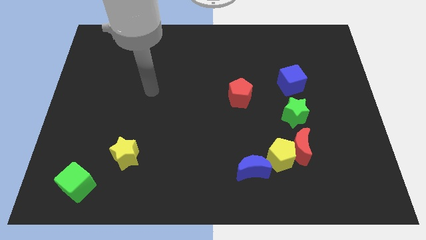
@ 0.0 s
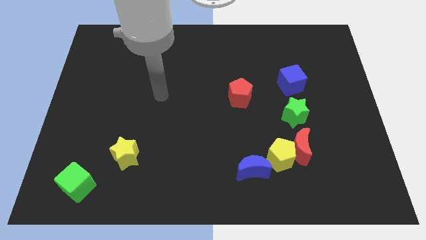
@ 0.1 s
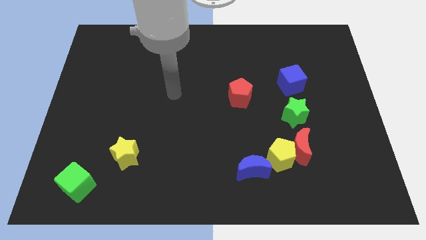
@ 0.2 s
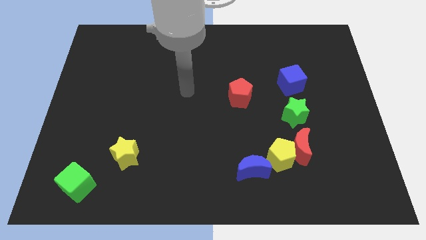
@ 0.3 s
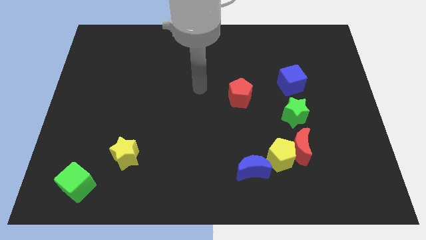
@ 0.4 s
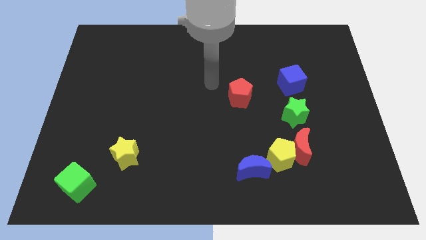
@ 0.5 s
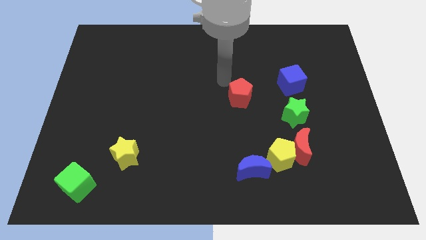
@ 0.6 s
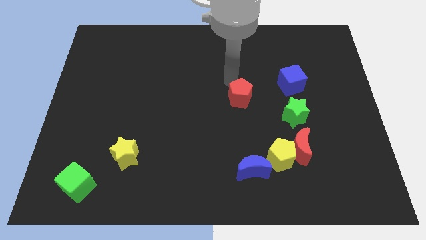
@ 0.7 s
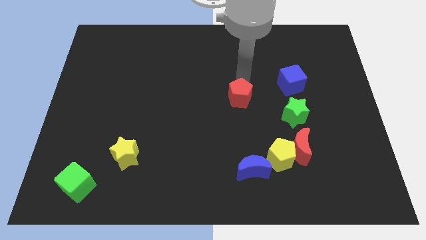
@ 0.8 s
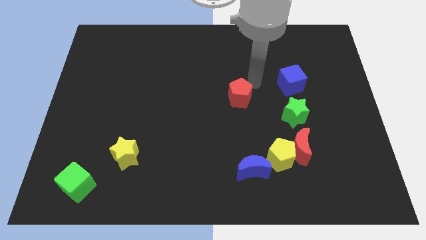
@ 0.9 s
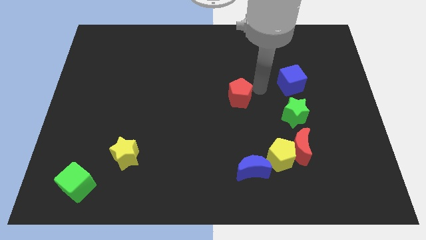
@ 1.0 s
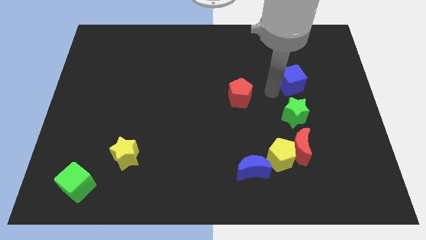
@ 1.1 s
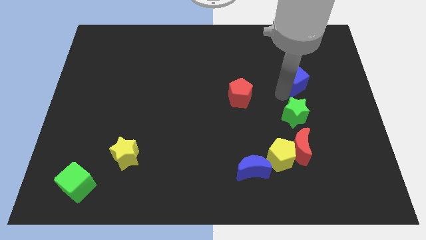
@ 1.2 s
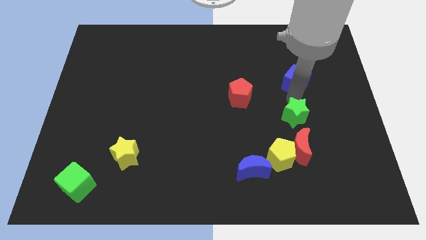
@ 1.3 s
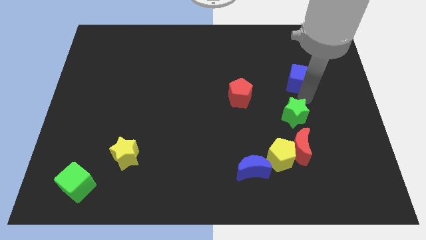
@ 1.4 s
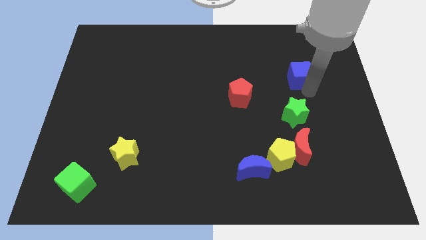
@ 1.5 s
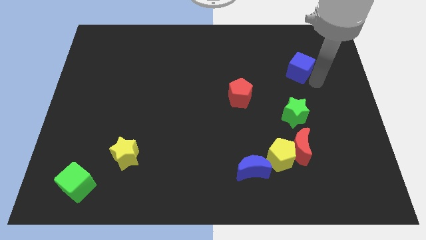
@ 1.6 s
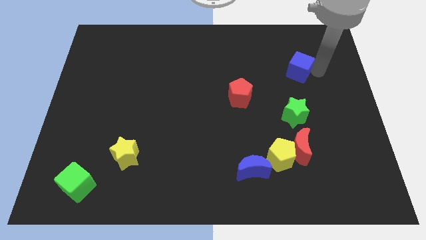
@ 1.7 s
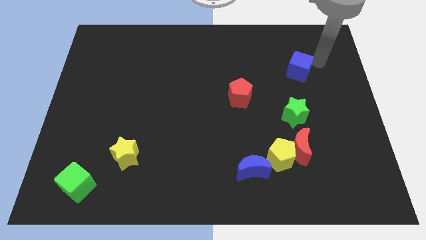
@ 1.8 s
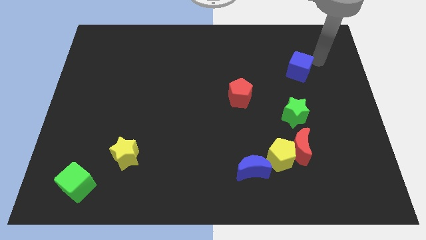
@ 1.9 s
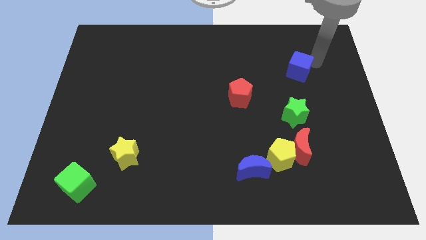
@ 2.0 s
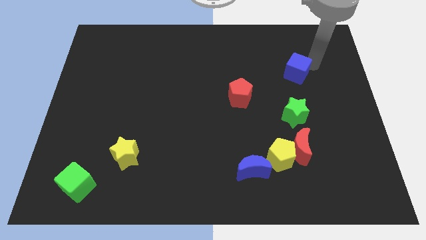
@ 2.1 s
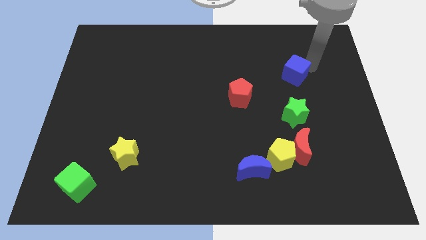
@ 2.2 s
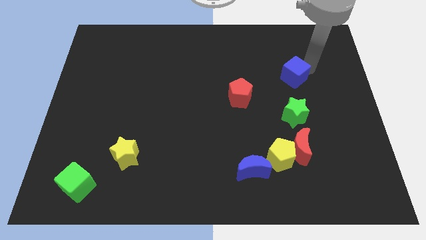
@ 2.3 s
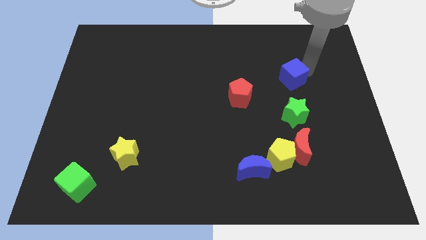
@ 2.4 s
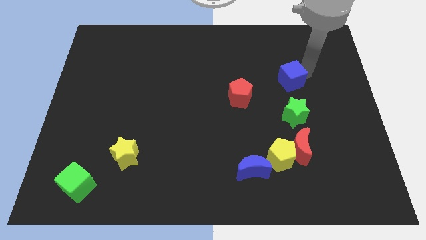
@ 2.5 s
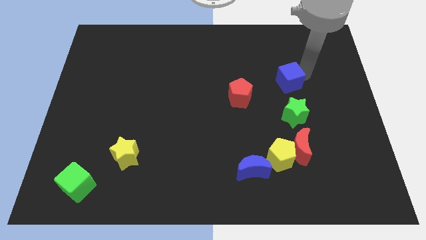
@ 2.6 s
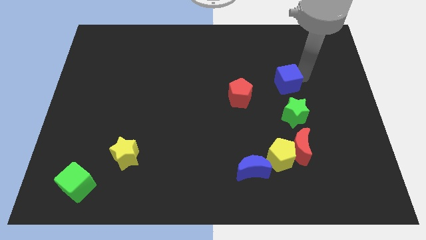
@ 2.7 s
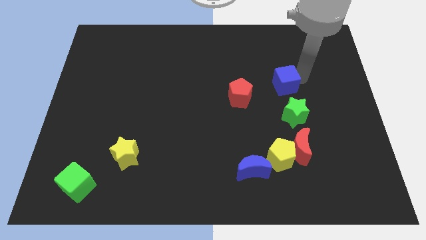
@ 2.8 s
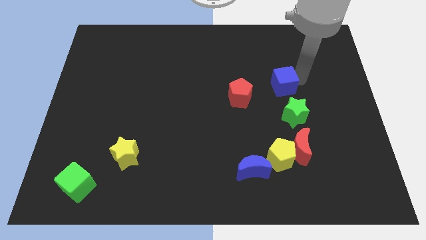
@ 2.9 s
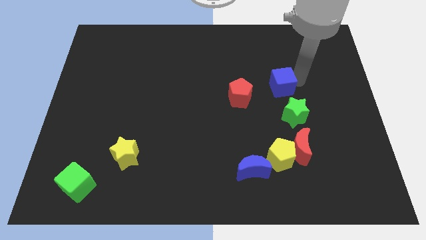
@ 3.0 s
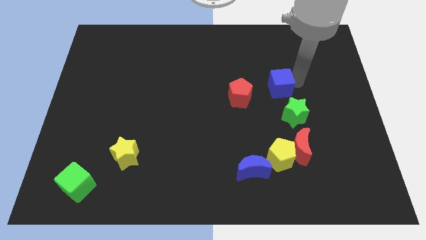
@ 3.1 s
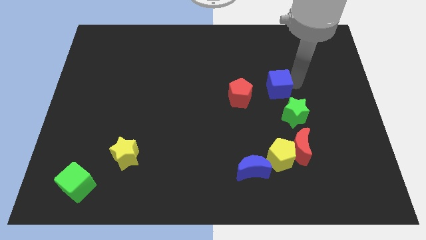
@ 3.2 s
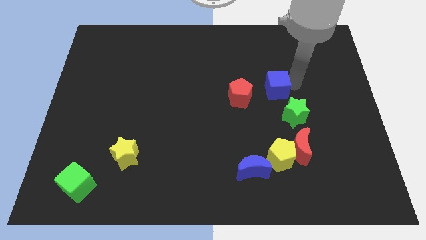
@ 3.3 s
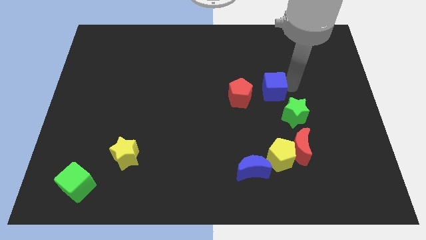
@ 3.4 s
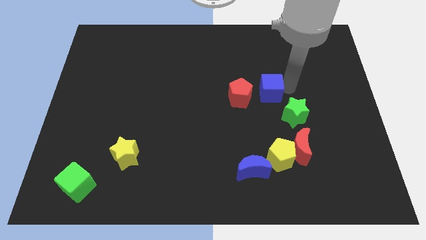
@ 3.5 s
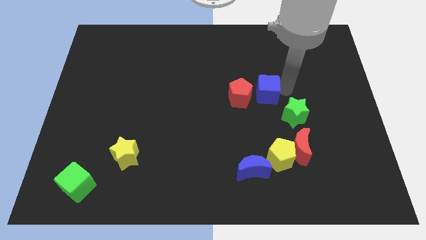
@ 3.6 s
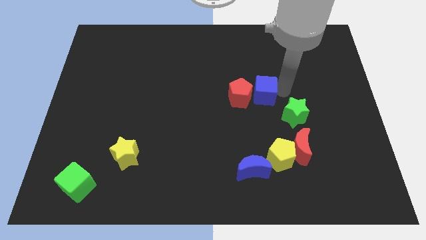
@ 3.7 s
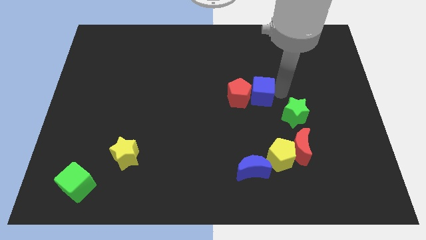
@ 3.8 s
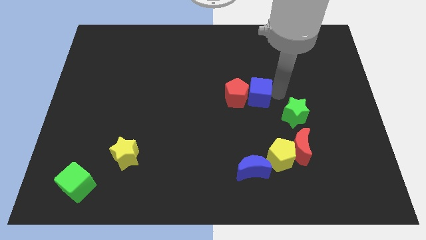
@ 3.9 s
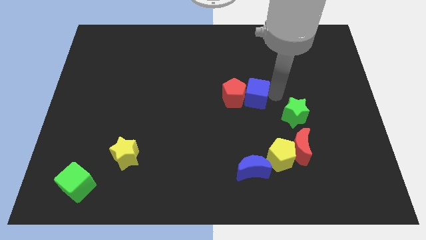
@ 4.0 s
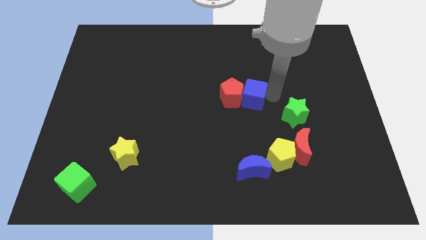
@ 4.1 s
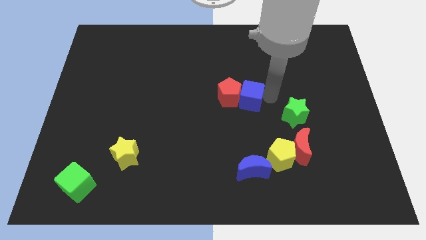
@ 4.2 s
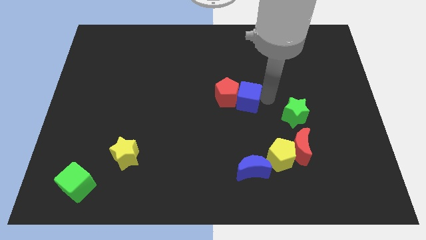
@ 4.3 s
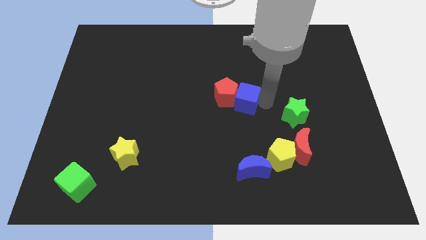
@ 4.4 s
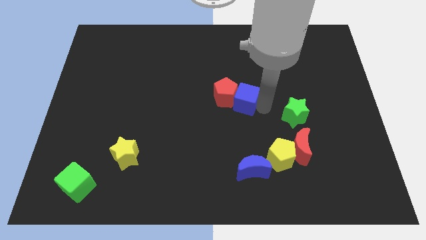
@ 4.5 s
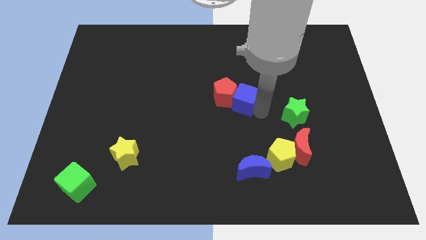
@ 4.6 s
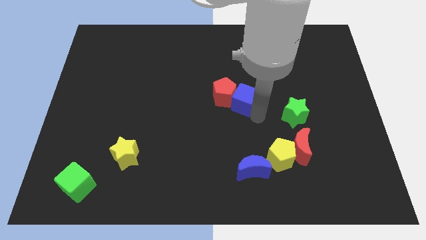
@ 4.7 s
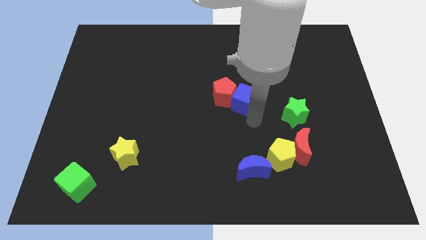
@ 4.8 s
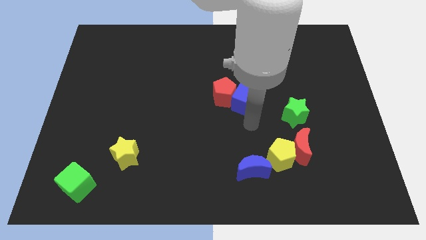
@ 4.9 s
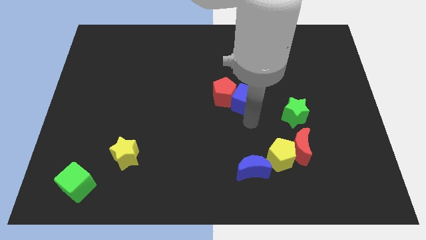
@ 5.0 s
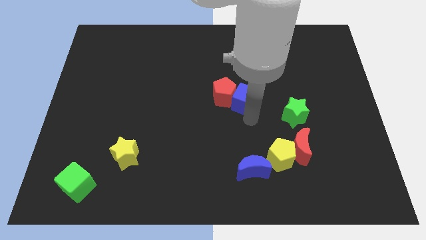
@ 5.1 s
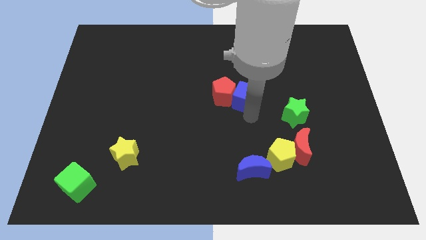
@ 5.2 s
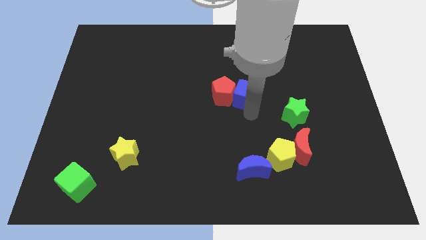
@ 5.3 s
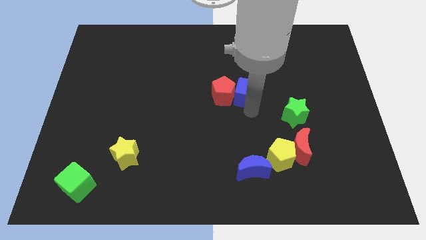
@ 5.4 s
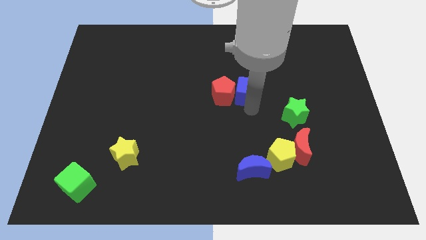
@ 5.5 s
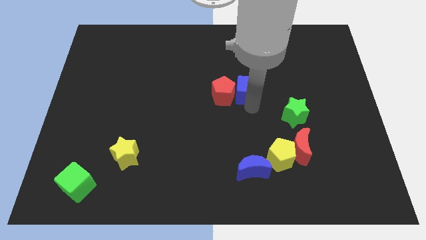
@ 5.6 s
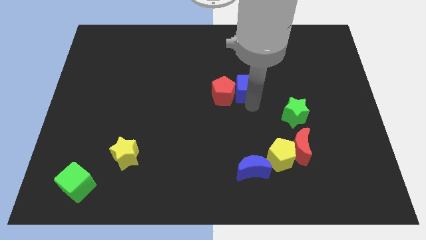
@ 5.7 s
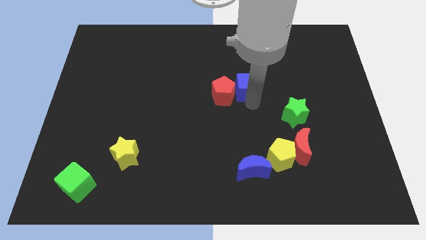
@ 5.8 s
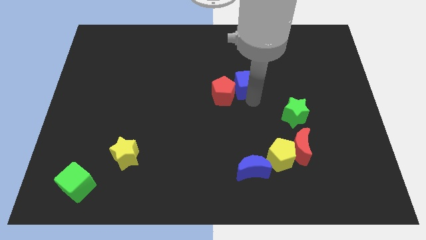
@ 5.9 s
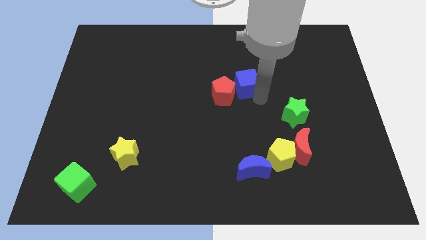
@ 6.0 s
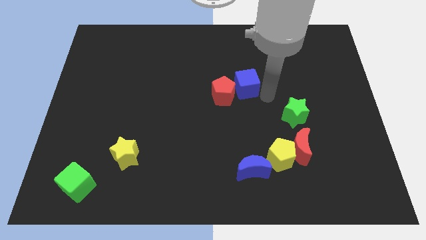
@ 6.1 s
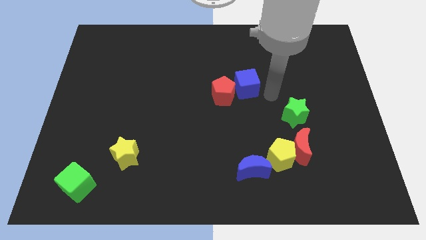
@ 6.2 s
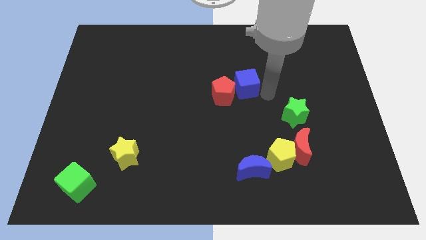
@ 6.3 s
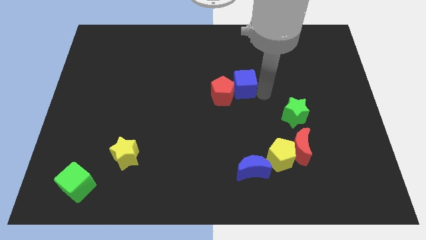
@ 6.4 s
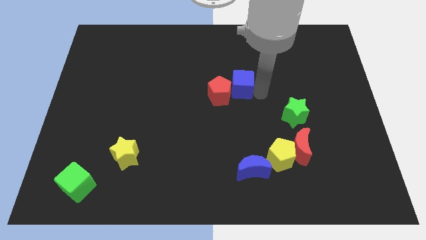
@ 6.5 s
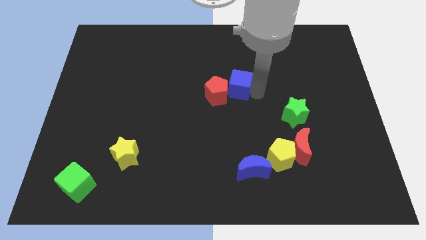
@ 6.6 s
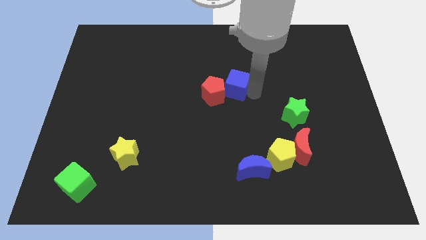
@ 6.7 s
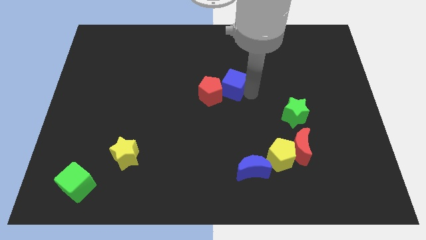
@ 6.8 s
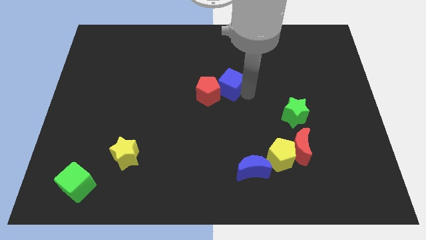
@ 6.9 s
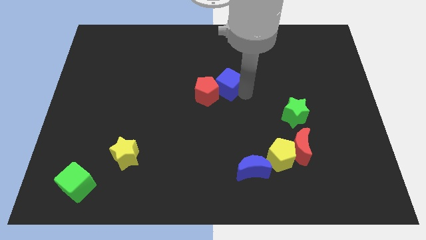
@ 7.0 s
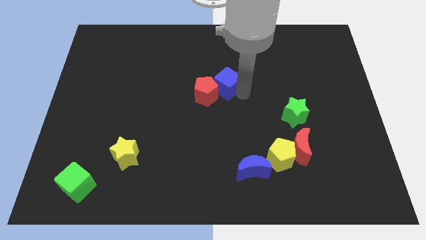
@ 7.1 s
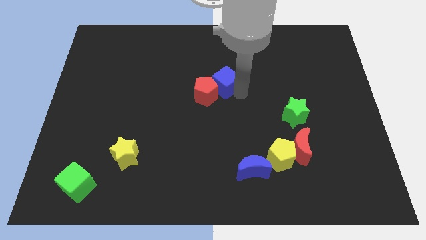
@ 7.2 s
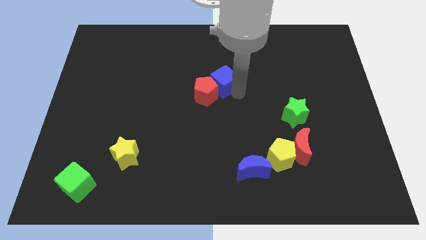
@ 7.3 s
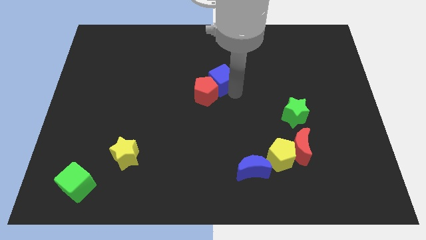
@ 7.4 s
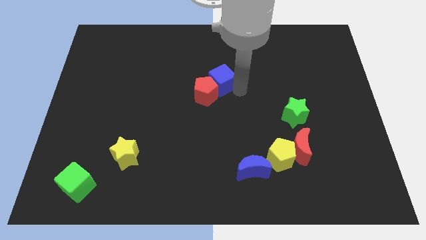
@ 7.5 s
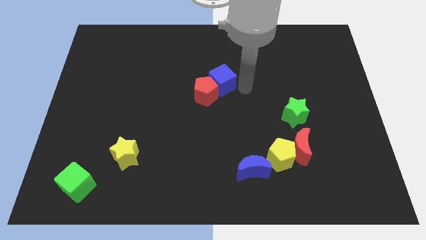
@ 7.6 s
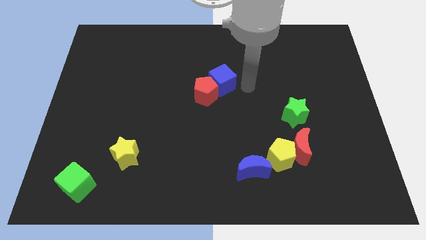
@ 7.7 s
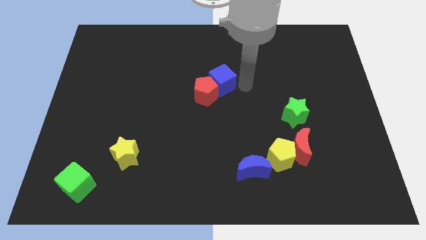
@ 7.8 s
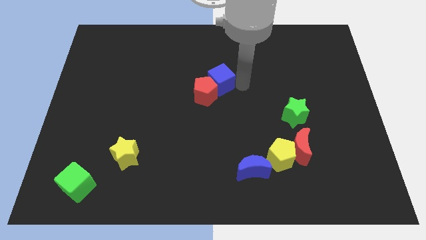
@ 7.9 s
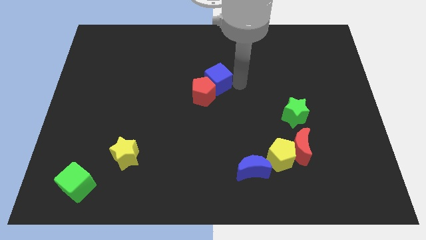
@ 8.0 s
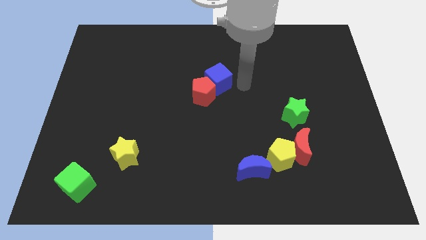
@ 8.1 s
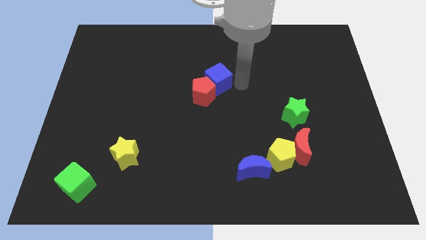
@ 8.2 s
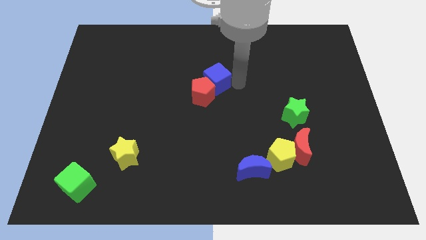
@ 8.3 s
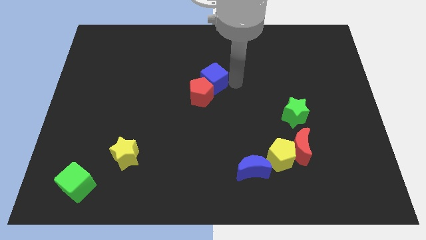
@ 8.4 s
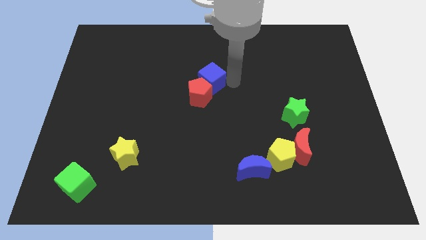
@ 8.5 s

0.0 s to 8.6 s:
push the blue cube left
